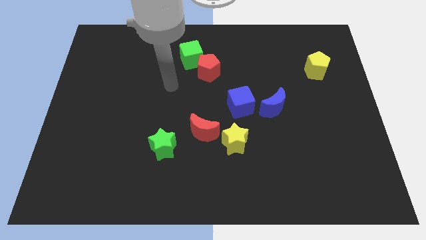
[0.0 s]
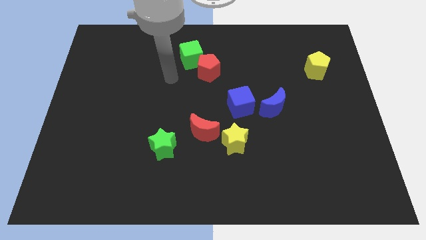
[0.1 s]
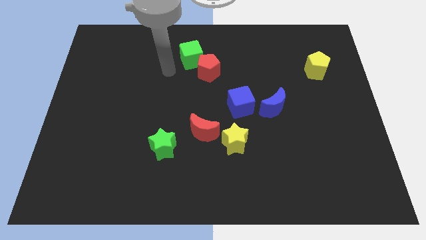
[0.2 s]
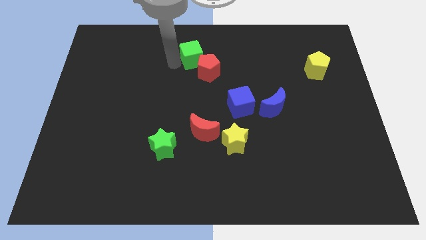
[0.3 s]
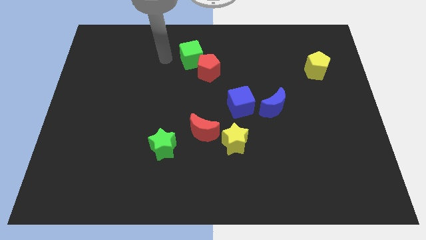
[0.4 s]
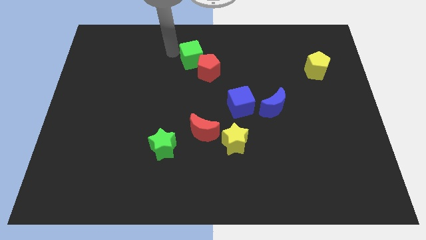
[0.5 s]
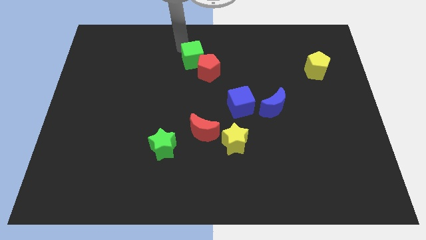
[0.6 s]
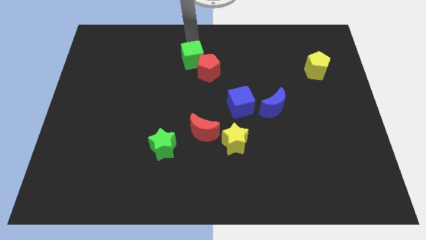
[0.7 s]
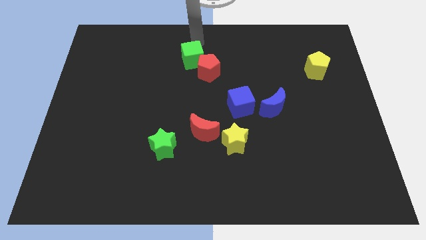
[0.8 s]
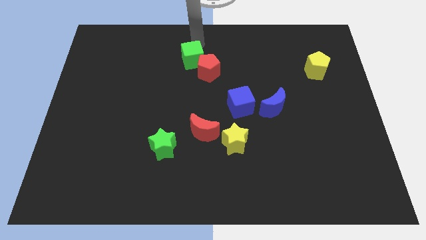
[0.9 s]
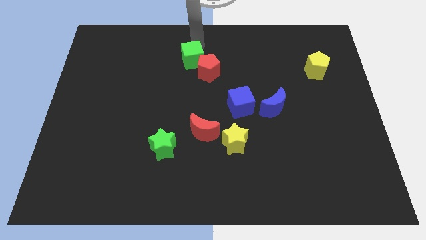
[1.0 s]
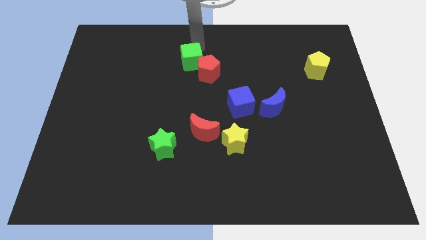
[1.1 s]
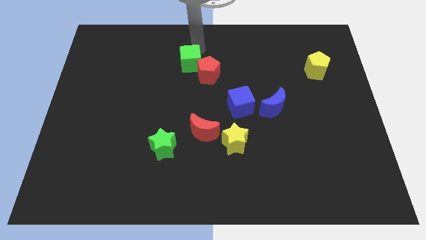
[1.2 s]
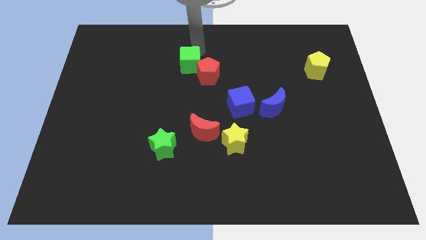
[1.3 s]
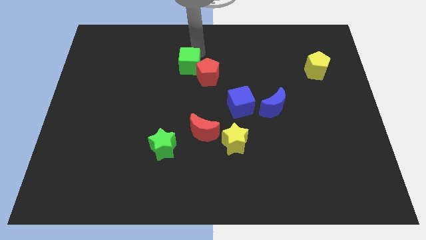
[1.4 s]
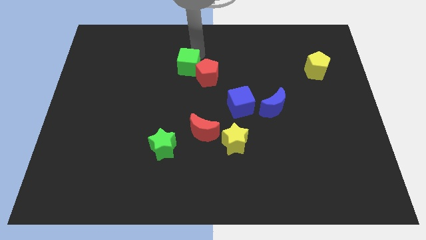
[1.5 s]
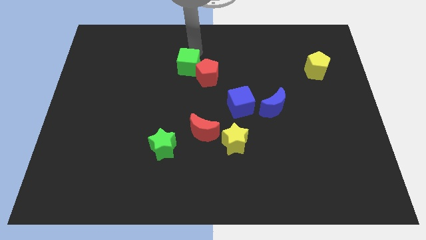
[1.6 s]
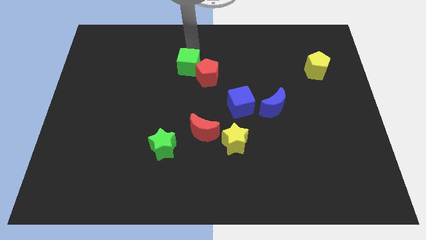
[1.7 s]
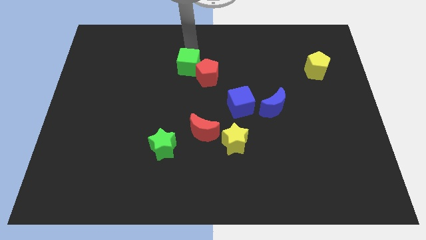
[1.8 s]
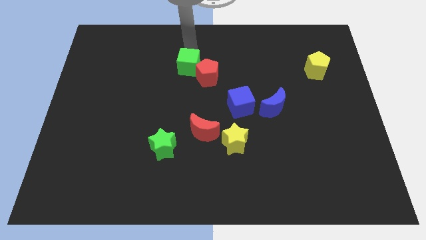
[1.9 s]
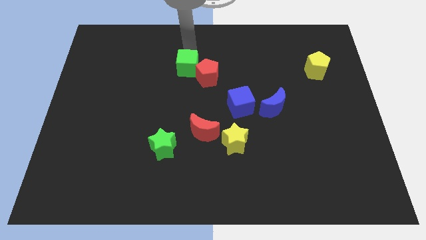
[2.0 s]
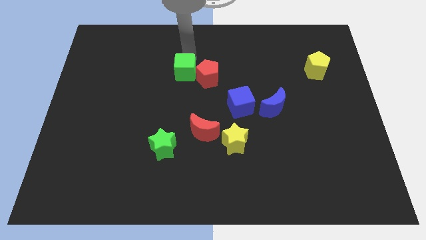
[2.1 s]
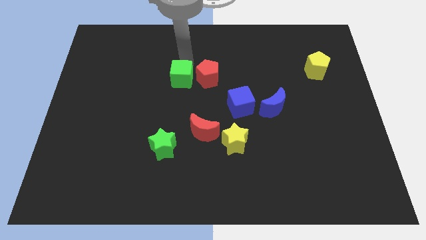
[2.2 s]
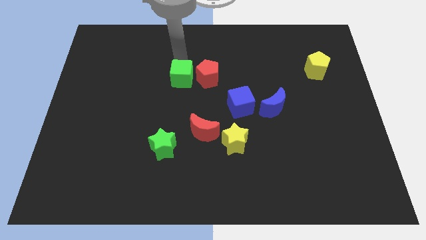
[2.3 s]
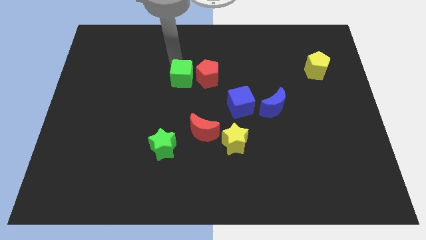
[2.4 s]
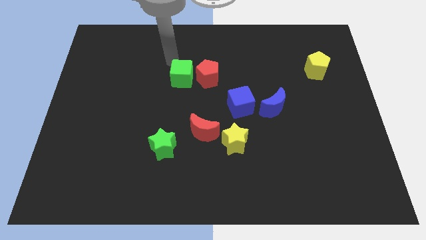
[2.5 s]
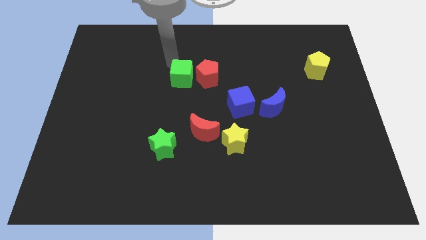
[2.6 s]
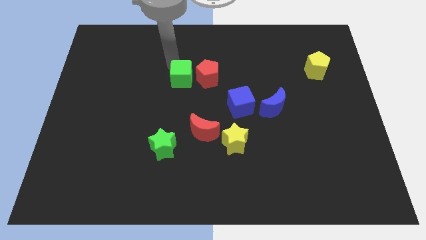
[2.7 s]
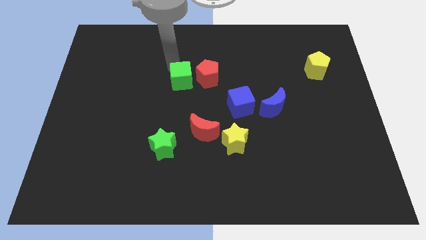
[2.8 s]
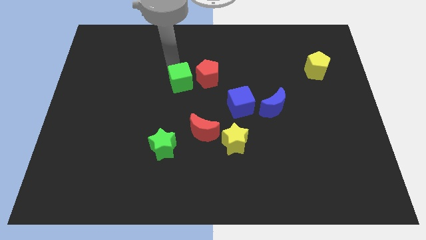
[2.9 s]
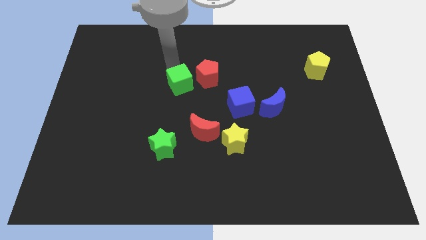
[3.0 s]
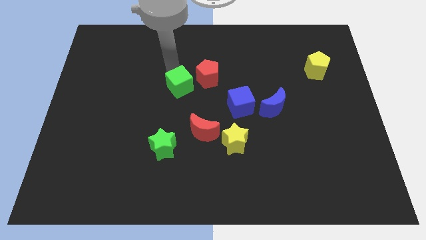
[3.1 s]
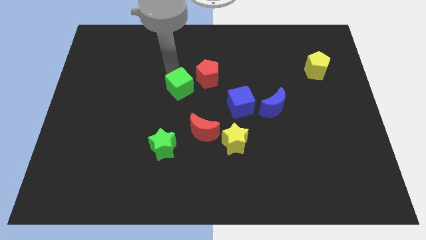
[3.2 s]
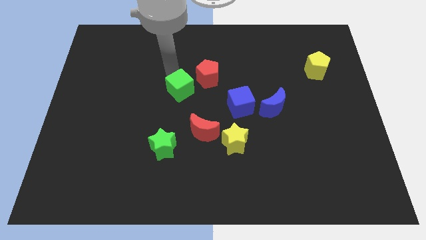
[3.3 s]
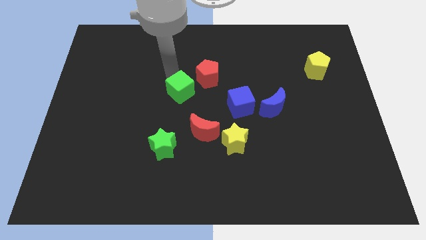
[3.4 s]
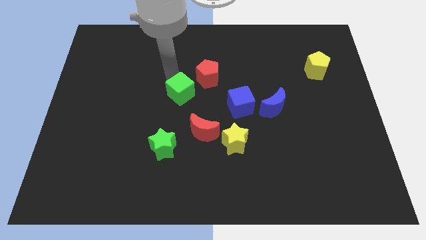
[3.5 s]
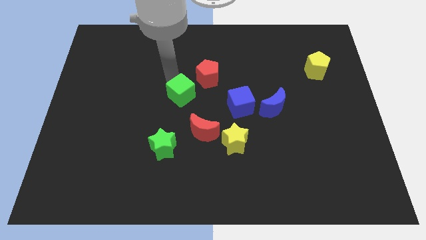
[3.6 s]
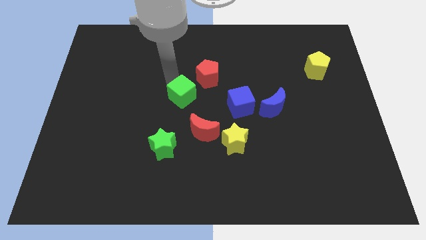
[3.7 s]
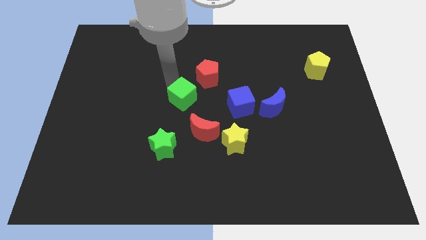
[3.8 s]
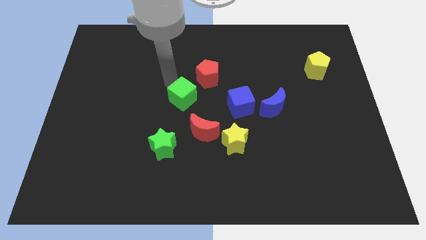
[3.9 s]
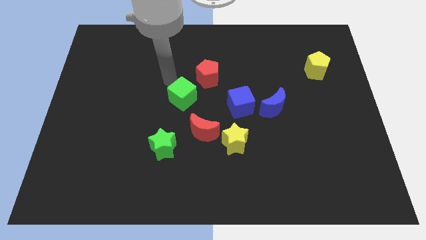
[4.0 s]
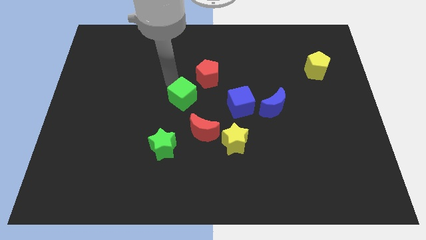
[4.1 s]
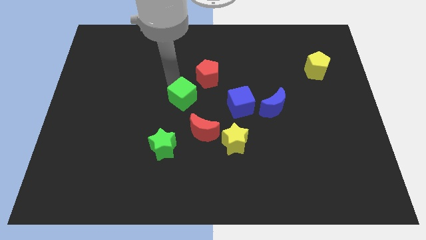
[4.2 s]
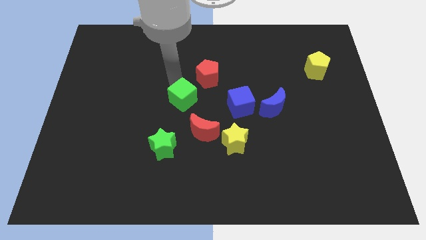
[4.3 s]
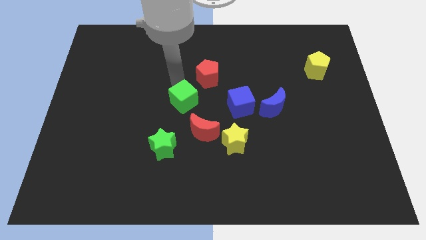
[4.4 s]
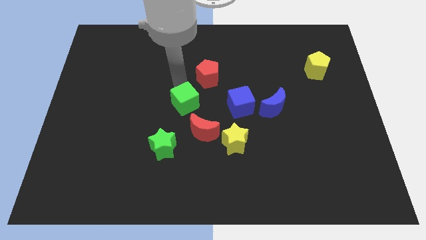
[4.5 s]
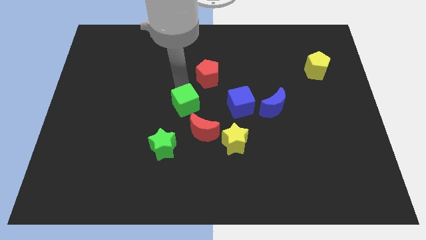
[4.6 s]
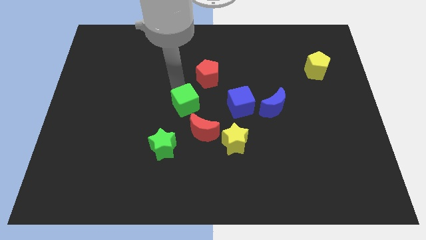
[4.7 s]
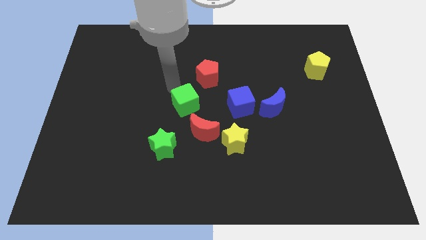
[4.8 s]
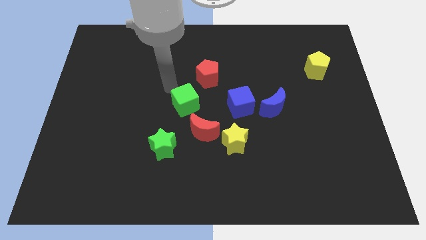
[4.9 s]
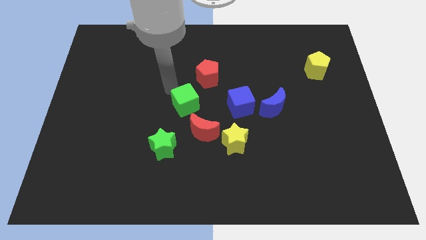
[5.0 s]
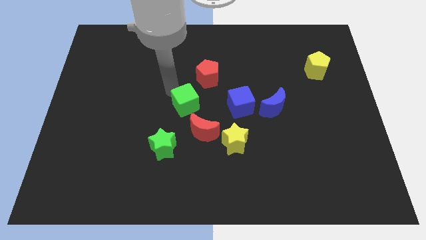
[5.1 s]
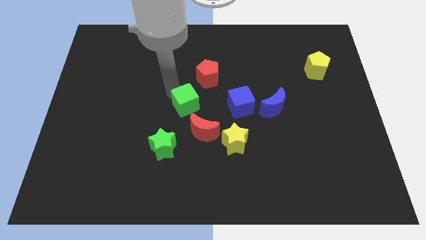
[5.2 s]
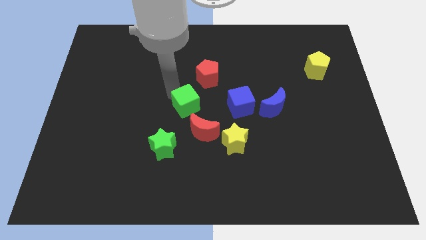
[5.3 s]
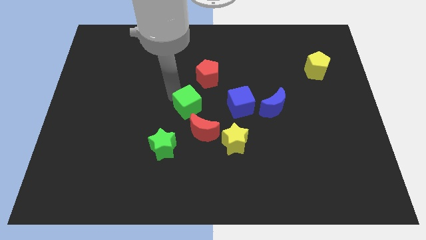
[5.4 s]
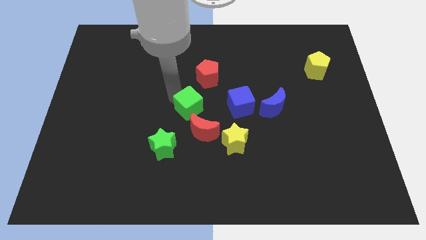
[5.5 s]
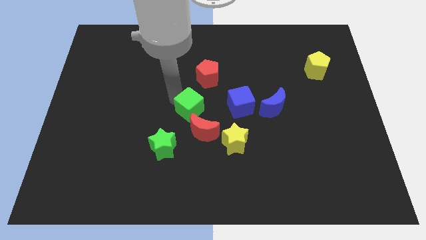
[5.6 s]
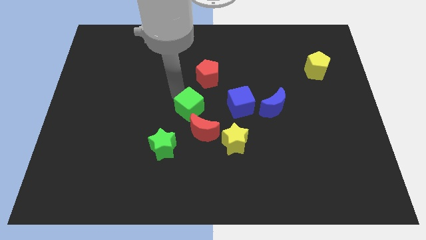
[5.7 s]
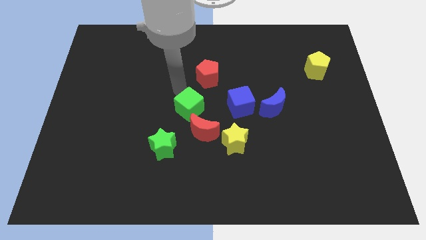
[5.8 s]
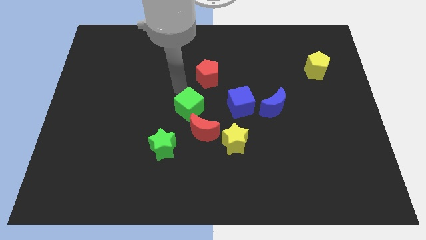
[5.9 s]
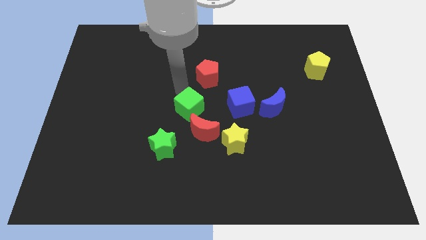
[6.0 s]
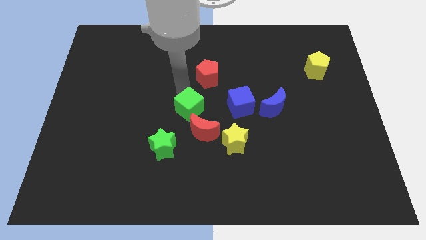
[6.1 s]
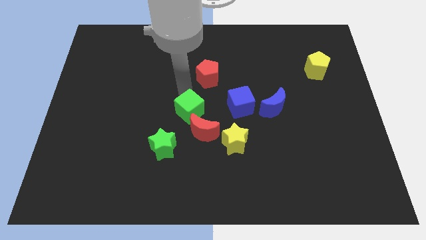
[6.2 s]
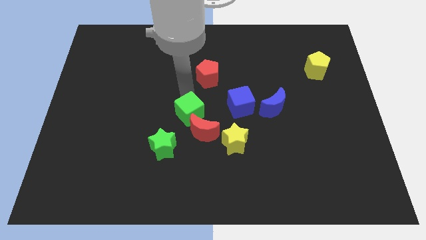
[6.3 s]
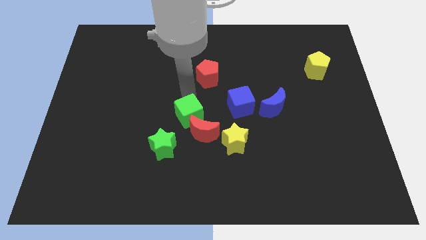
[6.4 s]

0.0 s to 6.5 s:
put the green cube next to the red moon

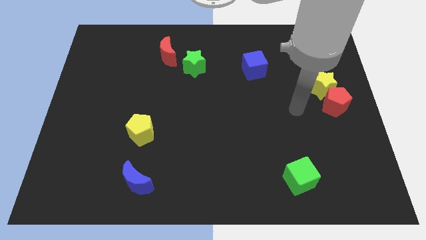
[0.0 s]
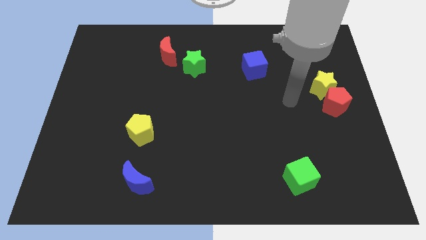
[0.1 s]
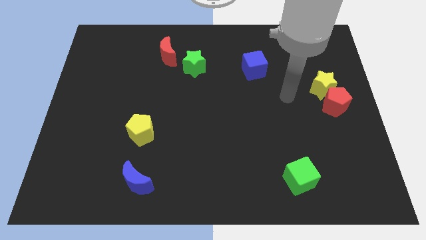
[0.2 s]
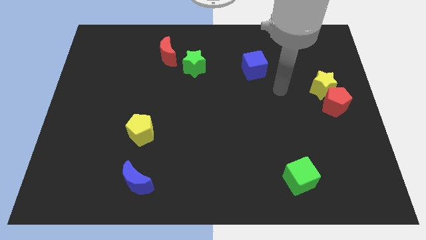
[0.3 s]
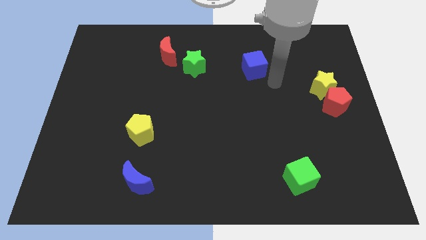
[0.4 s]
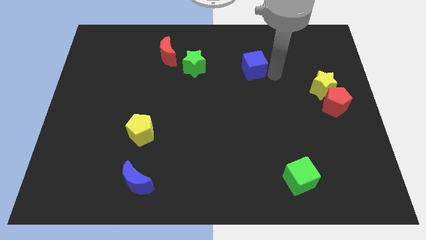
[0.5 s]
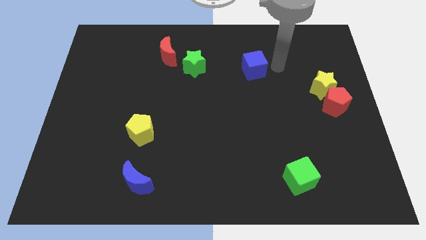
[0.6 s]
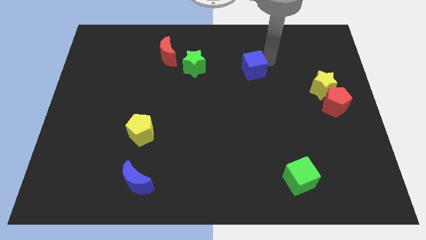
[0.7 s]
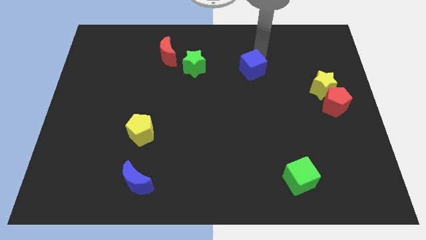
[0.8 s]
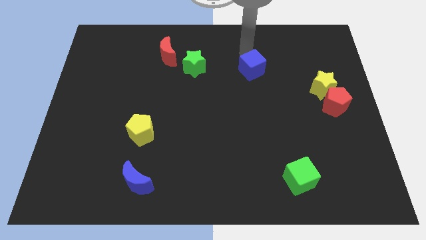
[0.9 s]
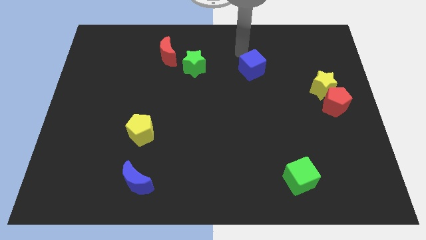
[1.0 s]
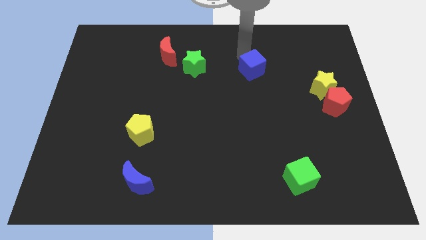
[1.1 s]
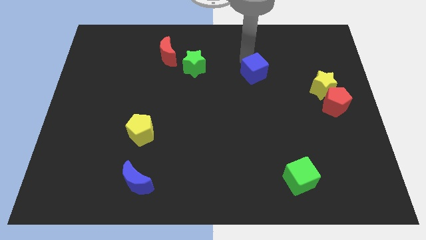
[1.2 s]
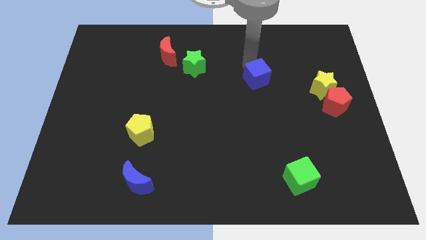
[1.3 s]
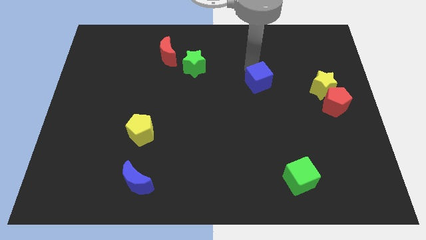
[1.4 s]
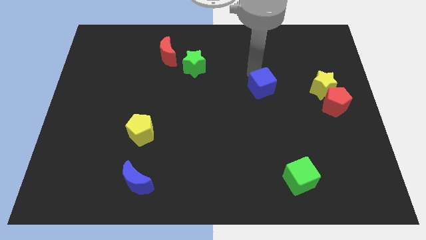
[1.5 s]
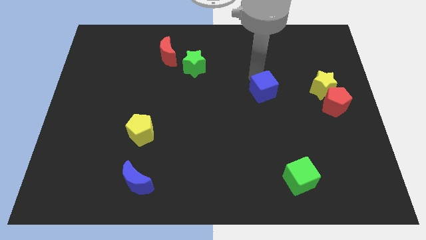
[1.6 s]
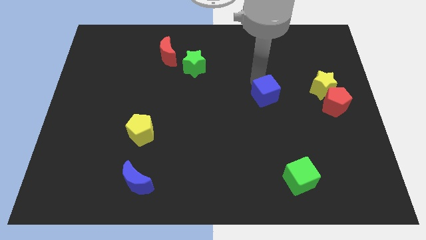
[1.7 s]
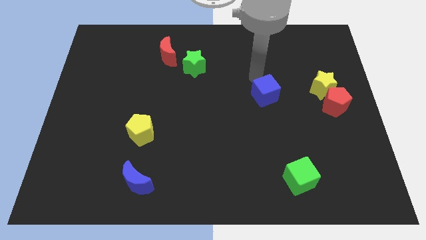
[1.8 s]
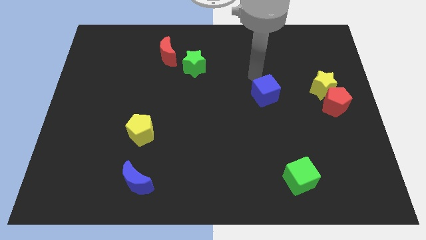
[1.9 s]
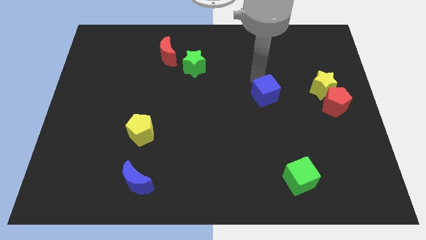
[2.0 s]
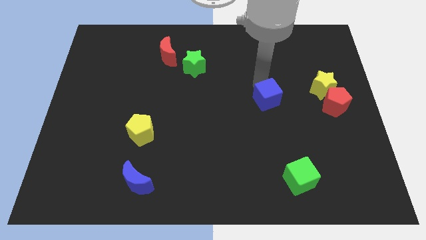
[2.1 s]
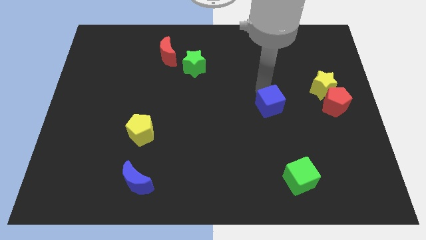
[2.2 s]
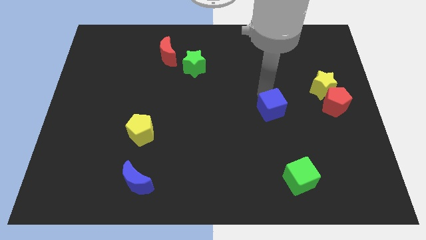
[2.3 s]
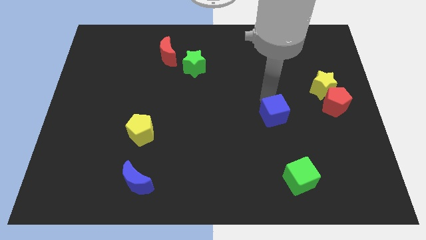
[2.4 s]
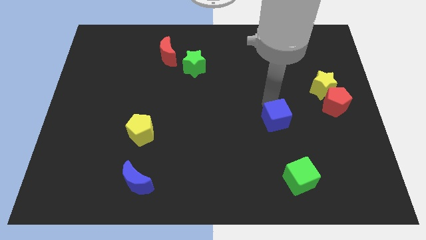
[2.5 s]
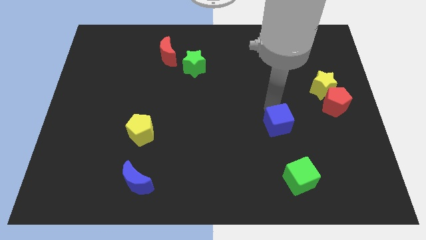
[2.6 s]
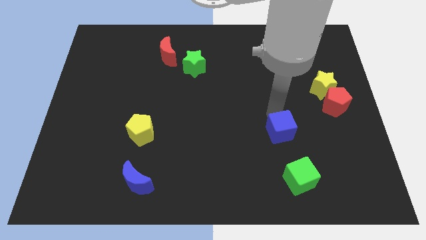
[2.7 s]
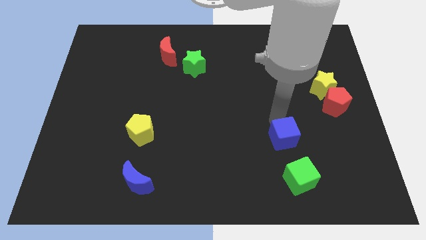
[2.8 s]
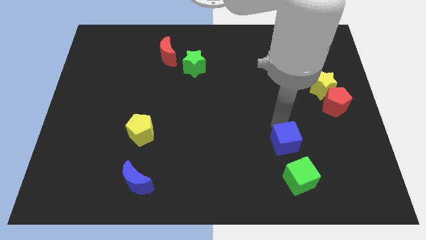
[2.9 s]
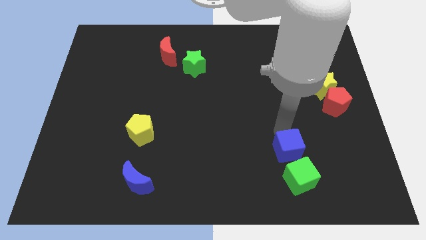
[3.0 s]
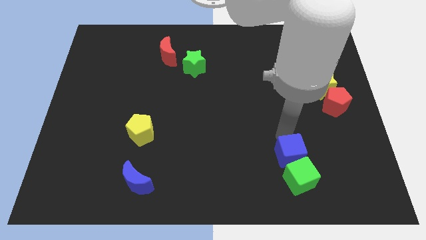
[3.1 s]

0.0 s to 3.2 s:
put the blue cube towards the green cube
